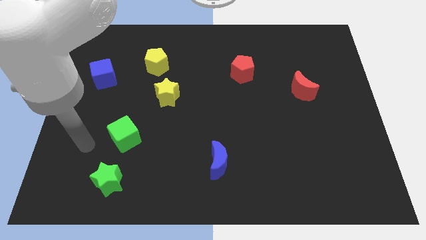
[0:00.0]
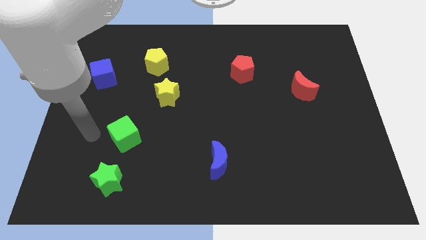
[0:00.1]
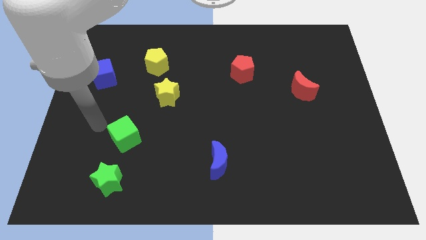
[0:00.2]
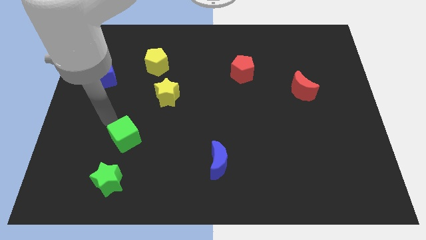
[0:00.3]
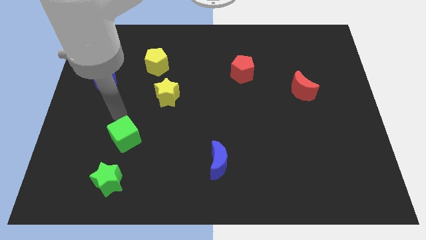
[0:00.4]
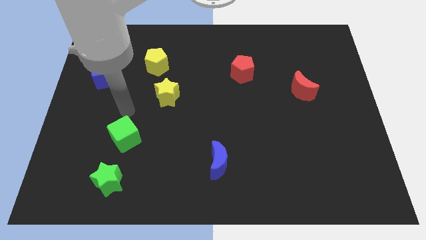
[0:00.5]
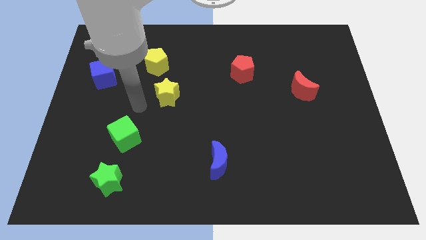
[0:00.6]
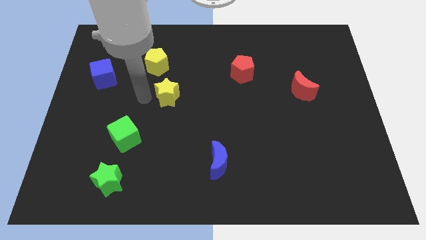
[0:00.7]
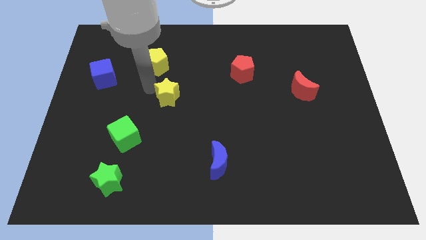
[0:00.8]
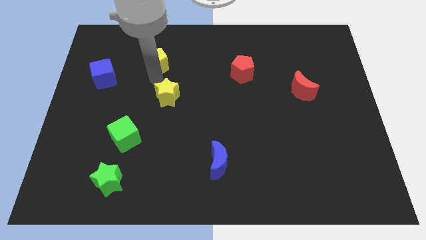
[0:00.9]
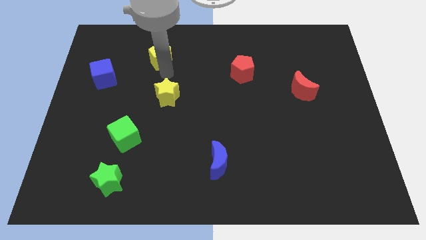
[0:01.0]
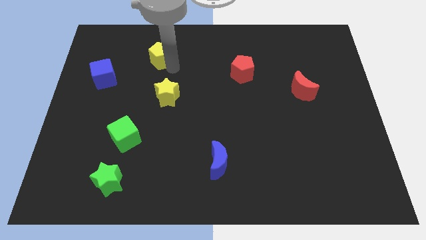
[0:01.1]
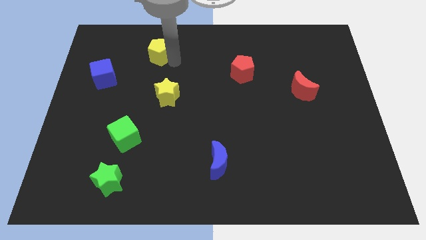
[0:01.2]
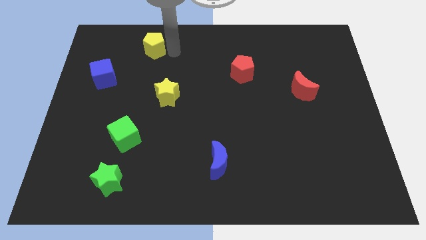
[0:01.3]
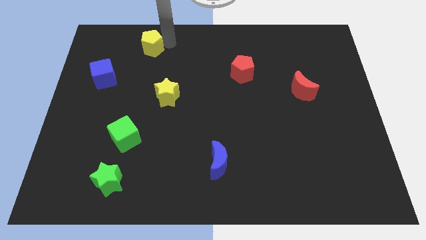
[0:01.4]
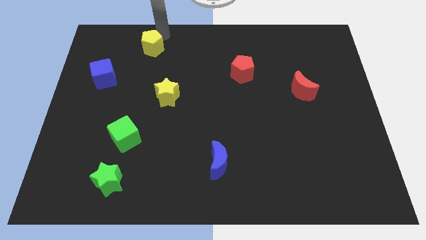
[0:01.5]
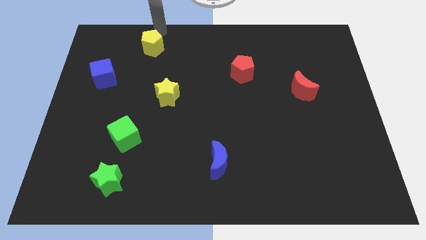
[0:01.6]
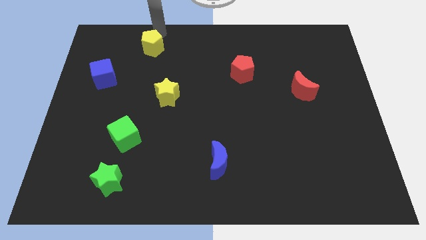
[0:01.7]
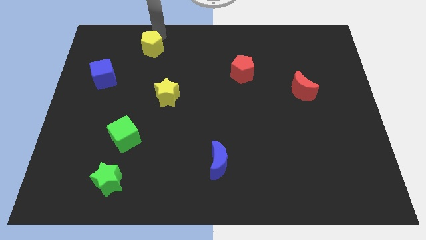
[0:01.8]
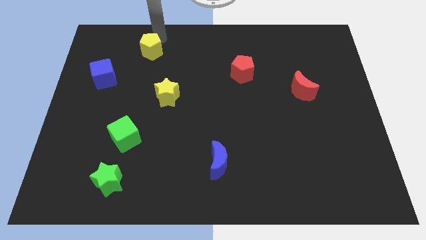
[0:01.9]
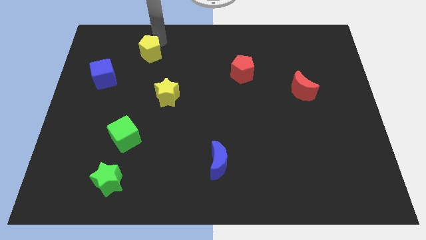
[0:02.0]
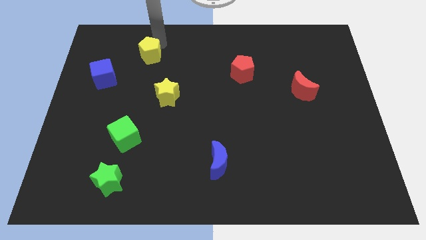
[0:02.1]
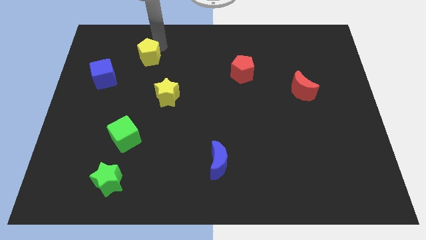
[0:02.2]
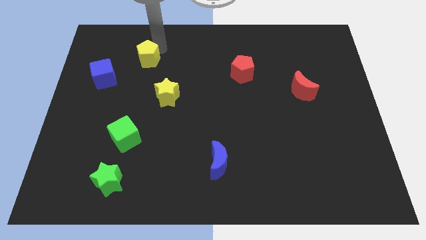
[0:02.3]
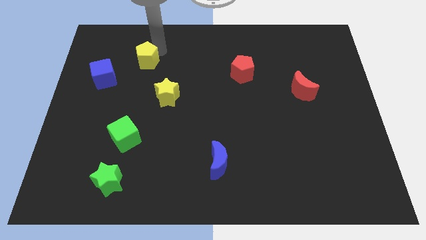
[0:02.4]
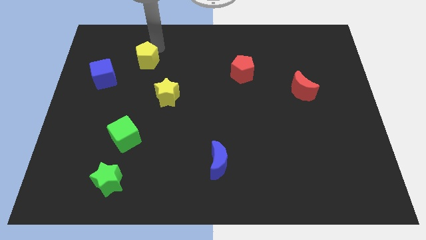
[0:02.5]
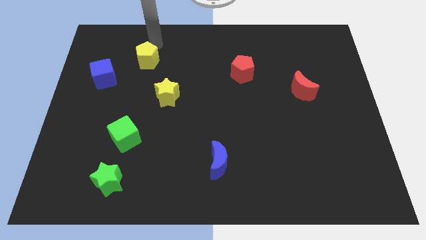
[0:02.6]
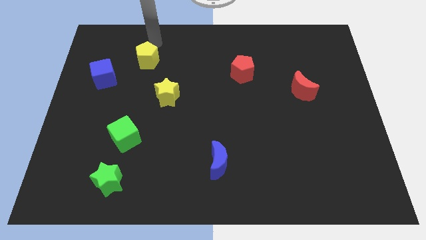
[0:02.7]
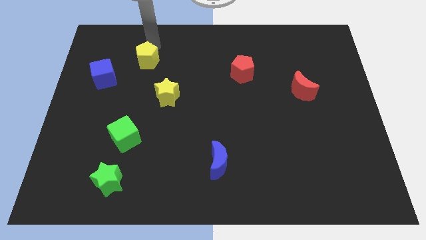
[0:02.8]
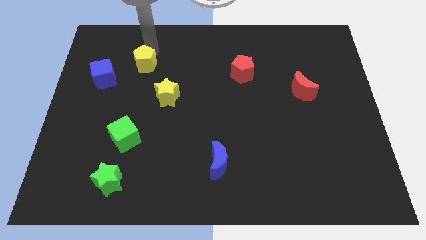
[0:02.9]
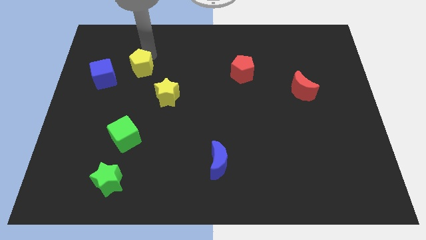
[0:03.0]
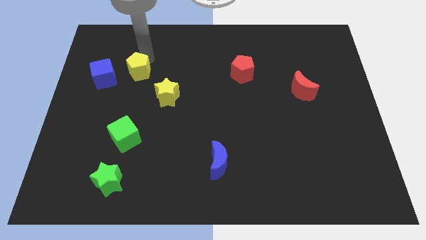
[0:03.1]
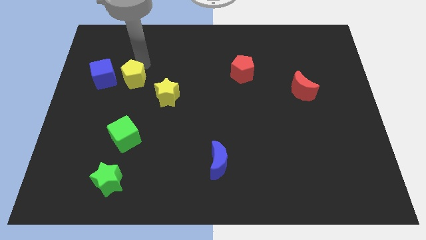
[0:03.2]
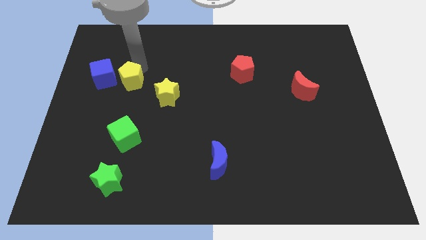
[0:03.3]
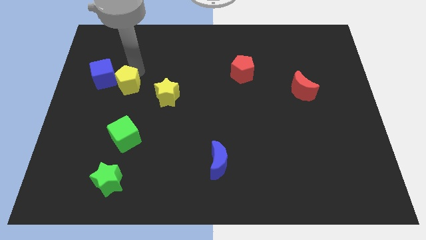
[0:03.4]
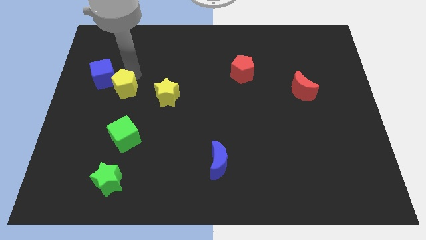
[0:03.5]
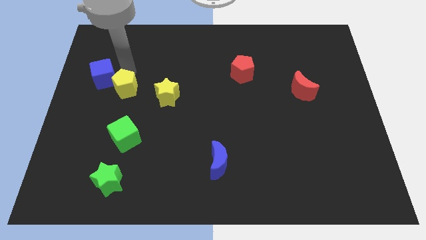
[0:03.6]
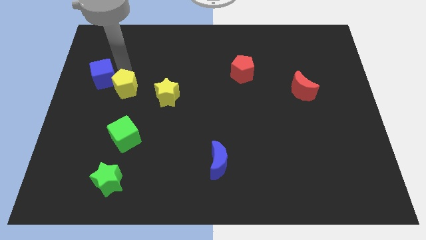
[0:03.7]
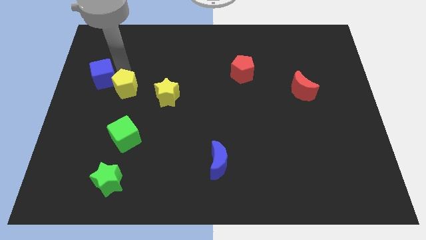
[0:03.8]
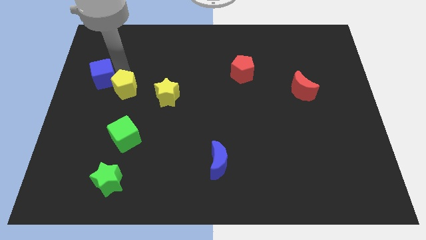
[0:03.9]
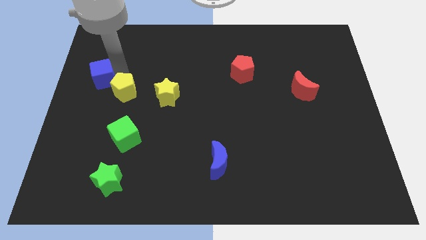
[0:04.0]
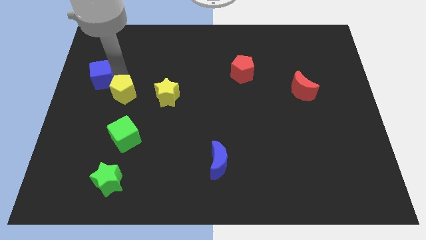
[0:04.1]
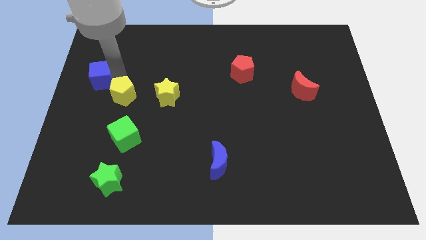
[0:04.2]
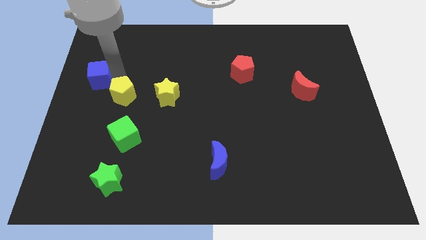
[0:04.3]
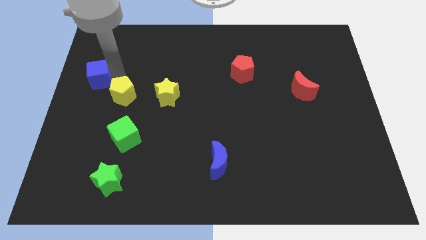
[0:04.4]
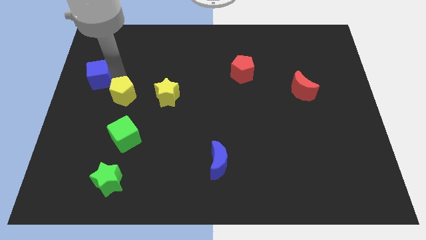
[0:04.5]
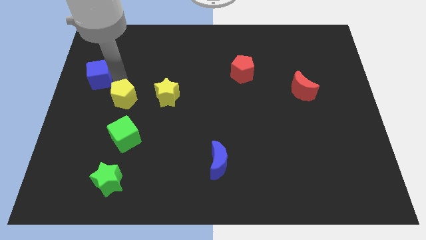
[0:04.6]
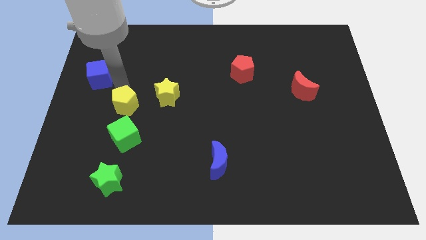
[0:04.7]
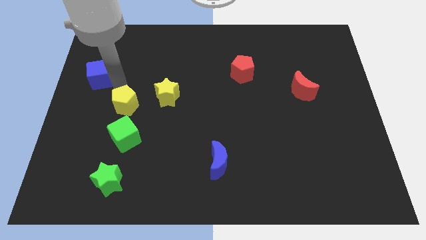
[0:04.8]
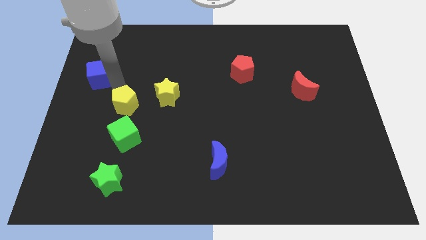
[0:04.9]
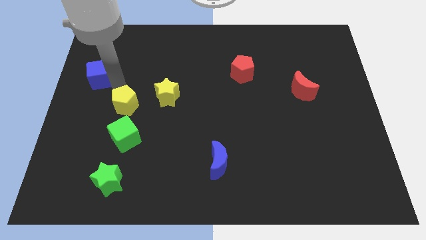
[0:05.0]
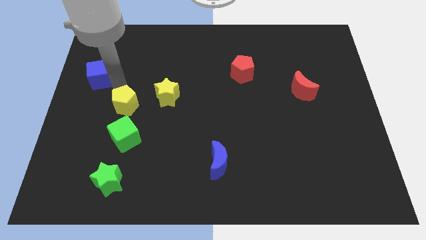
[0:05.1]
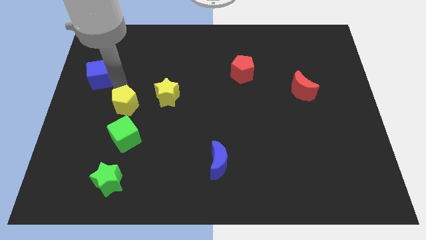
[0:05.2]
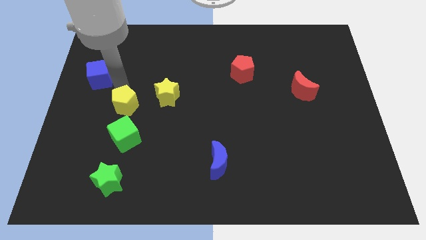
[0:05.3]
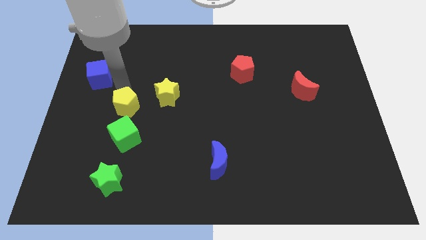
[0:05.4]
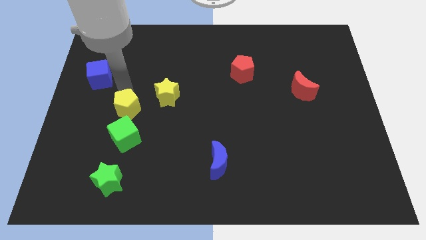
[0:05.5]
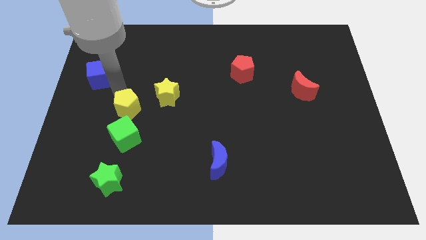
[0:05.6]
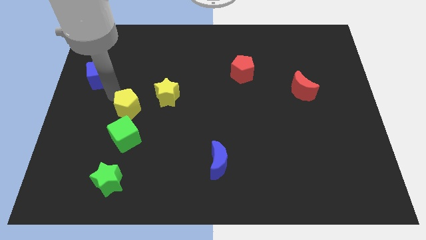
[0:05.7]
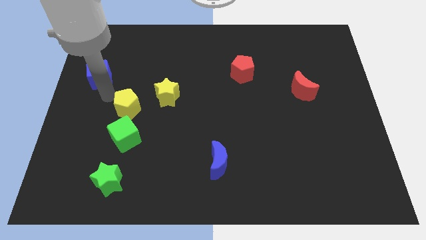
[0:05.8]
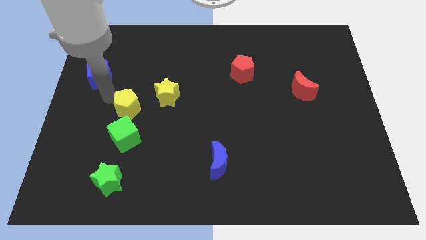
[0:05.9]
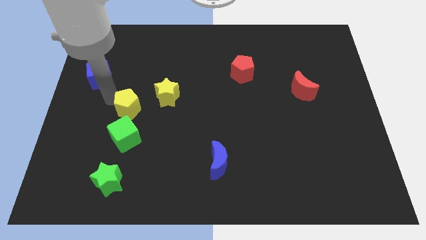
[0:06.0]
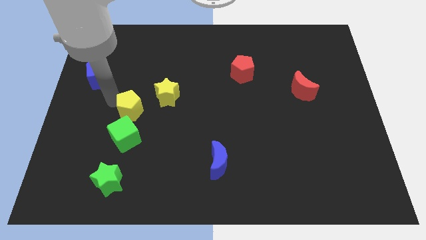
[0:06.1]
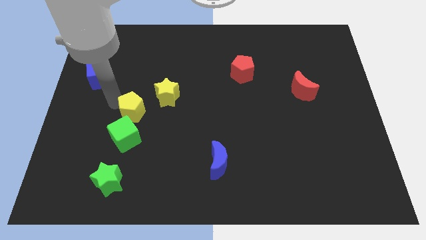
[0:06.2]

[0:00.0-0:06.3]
push the yellow pentagon to the top right side of the green cube
